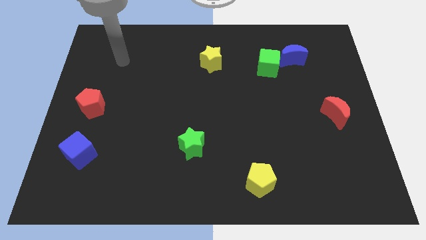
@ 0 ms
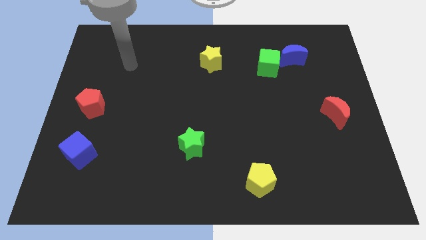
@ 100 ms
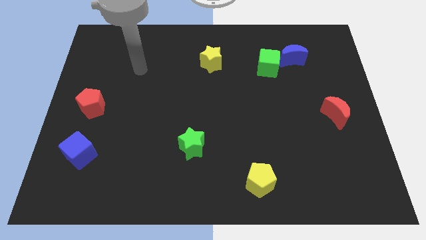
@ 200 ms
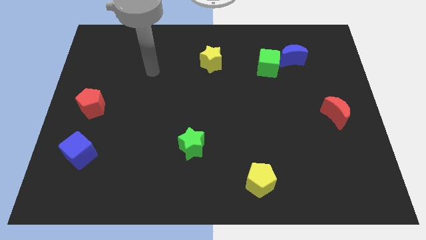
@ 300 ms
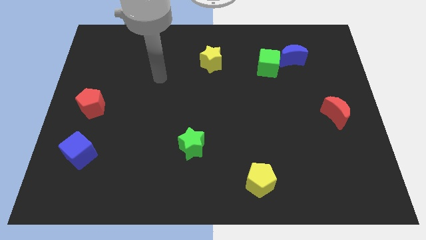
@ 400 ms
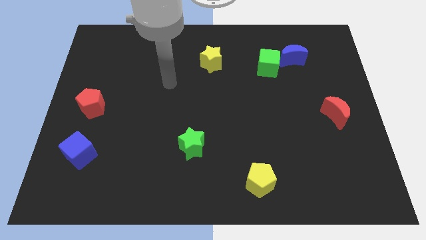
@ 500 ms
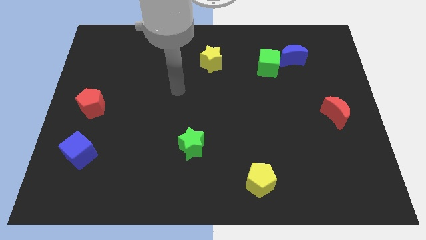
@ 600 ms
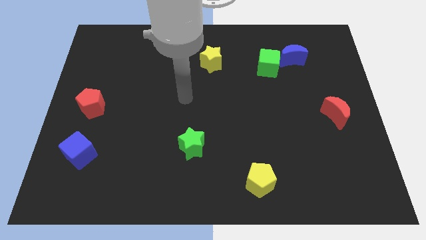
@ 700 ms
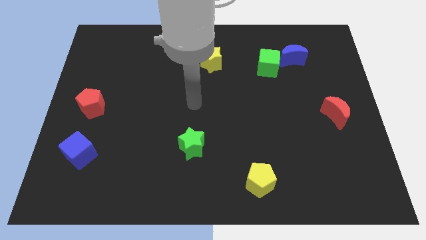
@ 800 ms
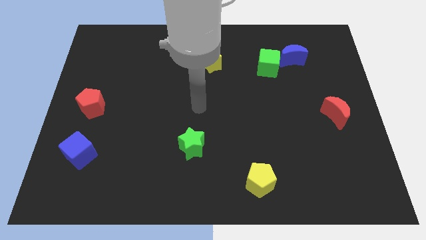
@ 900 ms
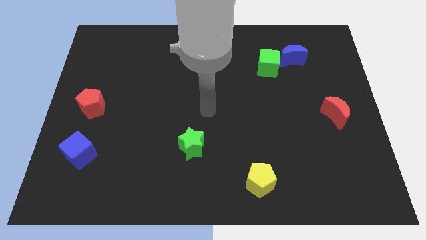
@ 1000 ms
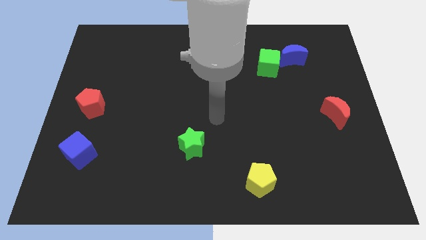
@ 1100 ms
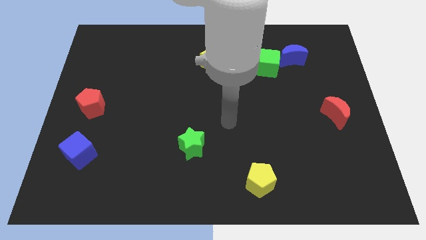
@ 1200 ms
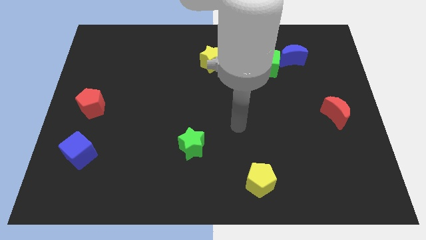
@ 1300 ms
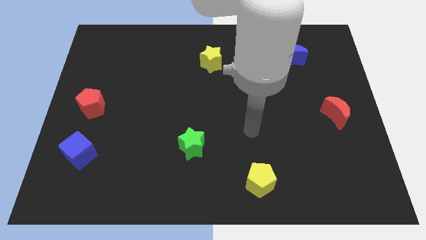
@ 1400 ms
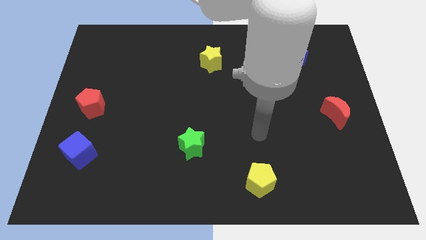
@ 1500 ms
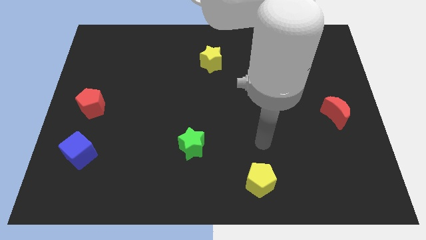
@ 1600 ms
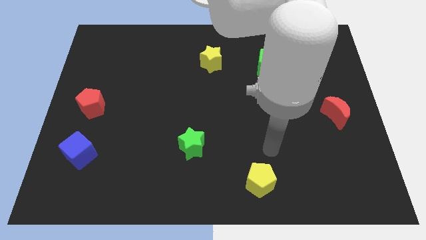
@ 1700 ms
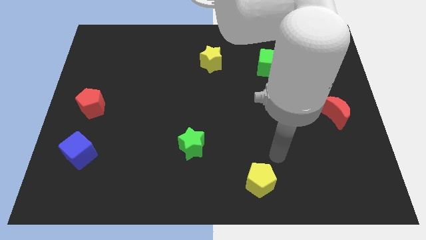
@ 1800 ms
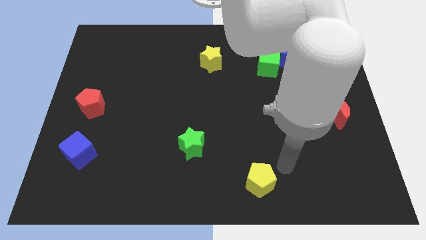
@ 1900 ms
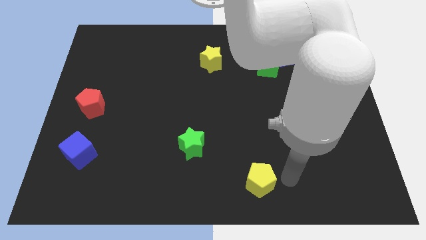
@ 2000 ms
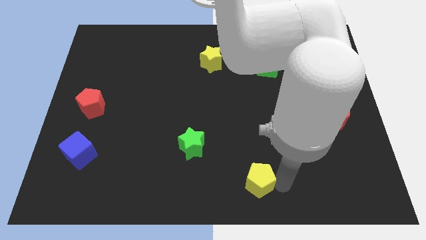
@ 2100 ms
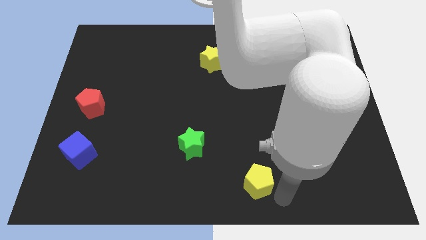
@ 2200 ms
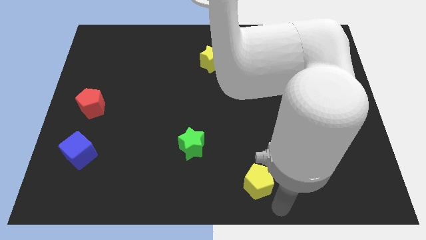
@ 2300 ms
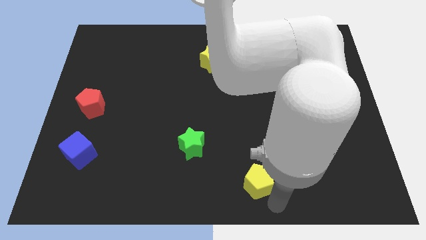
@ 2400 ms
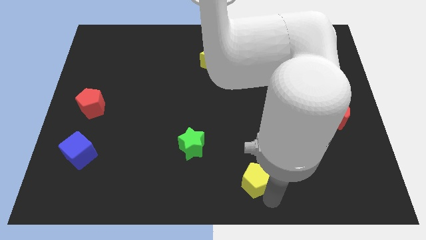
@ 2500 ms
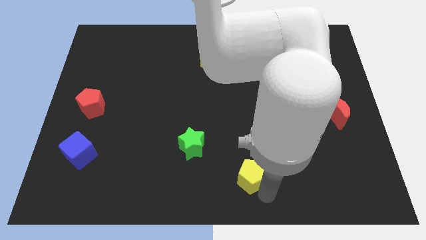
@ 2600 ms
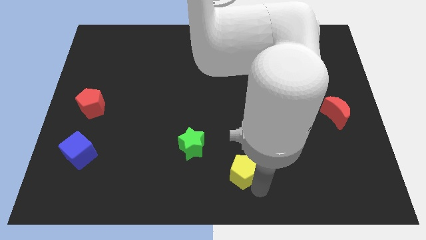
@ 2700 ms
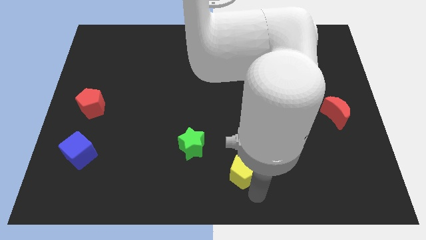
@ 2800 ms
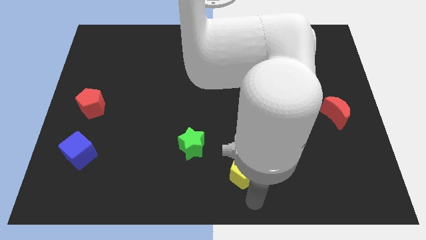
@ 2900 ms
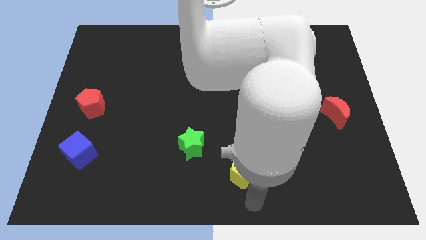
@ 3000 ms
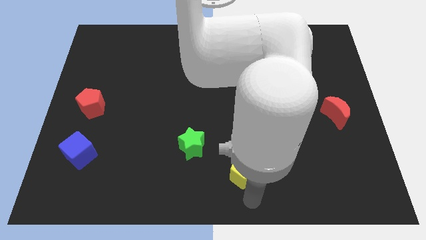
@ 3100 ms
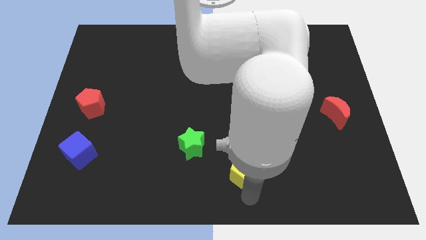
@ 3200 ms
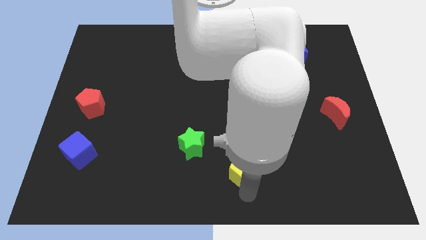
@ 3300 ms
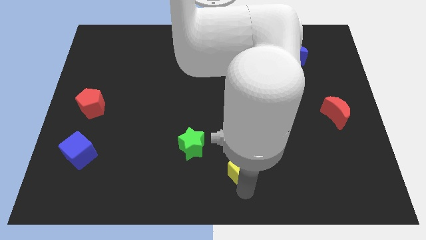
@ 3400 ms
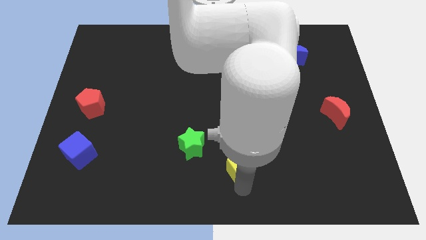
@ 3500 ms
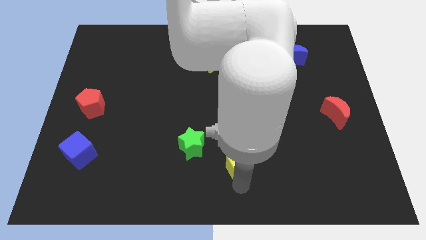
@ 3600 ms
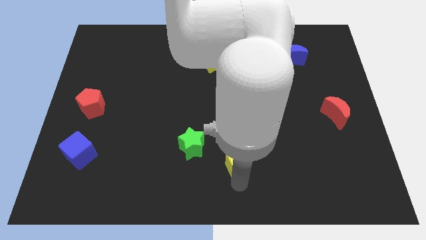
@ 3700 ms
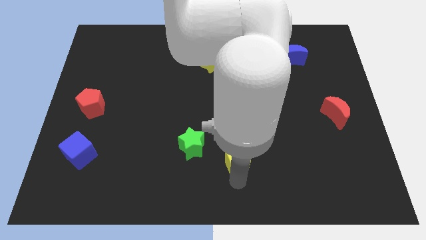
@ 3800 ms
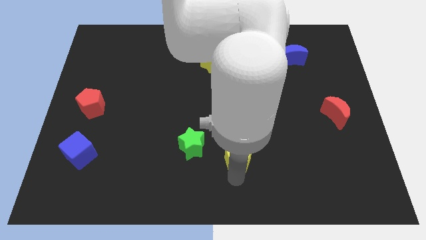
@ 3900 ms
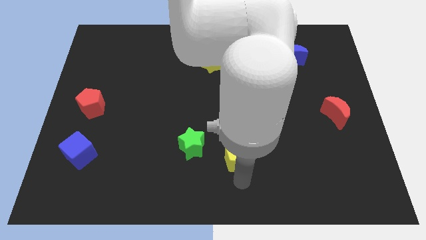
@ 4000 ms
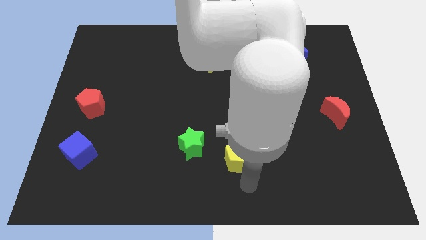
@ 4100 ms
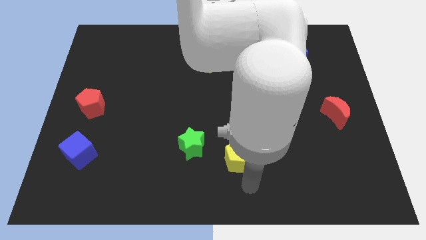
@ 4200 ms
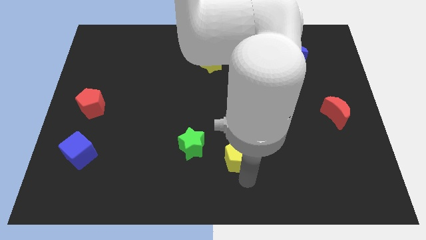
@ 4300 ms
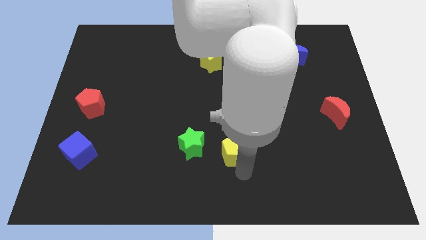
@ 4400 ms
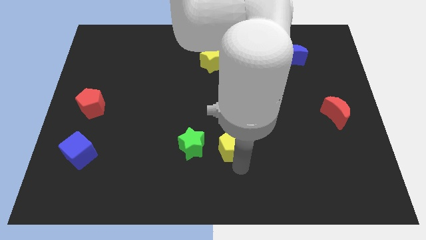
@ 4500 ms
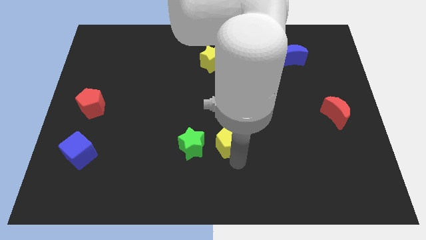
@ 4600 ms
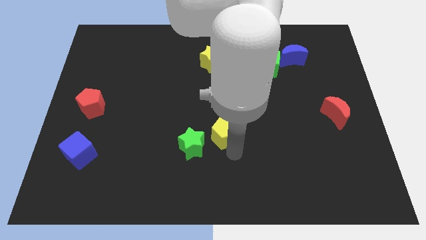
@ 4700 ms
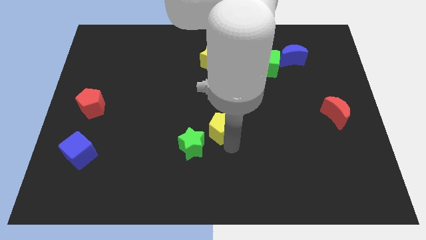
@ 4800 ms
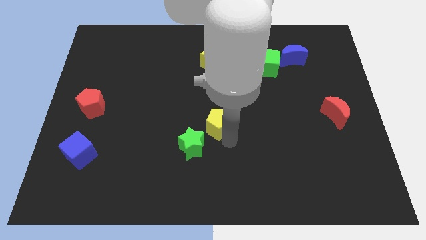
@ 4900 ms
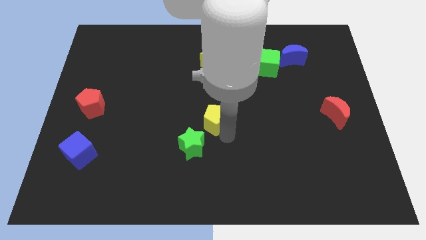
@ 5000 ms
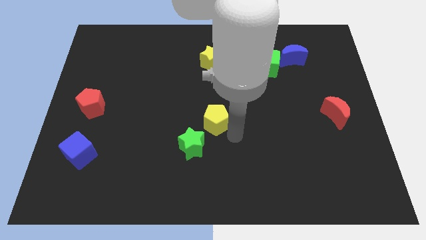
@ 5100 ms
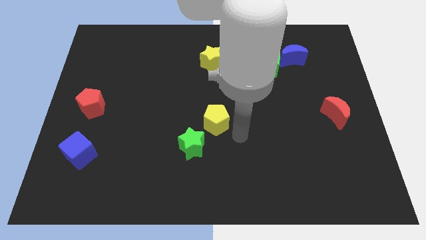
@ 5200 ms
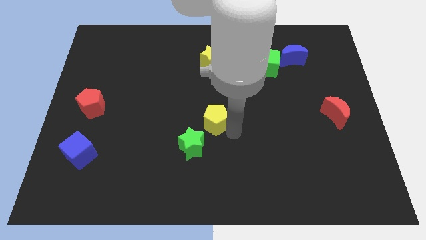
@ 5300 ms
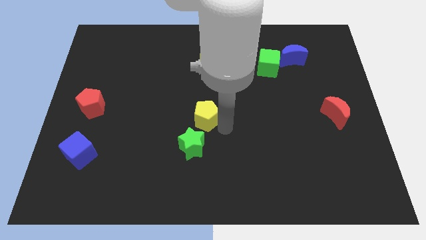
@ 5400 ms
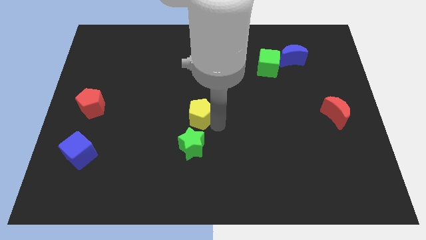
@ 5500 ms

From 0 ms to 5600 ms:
move the yellow pentagon upwards and to the left diagonally

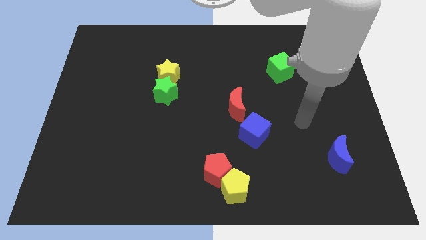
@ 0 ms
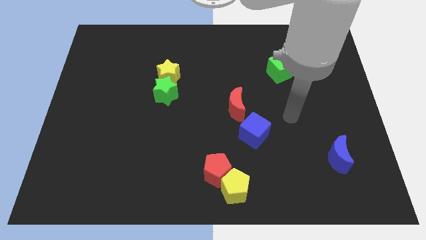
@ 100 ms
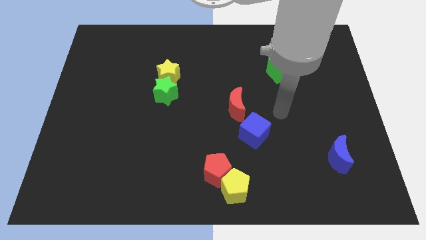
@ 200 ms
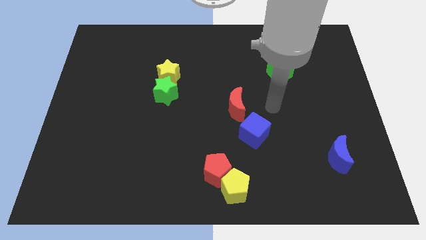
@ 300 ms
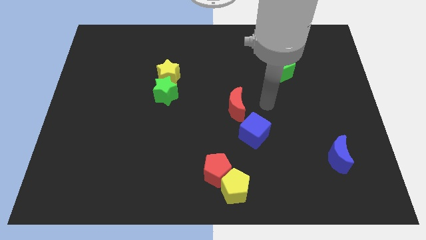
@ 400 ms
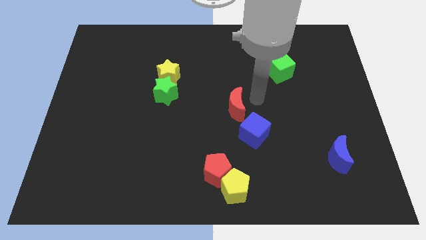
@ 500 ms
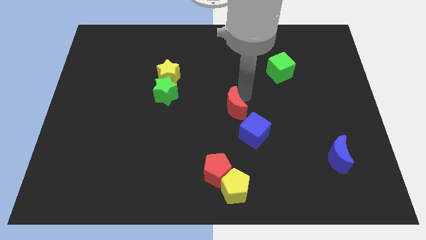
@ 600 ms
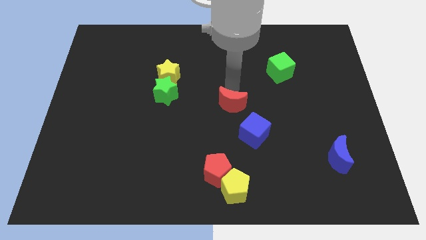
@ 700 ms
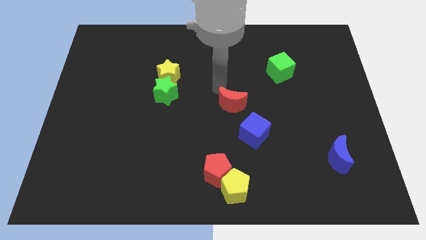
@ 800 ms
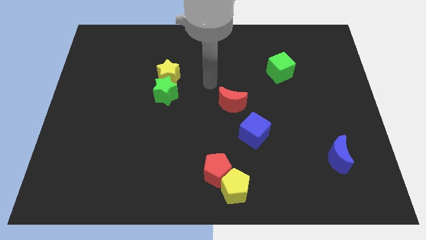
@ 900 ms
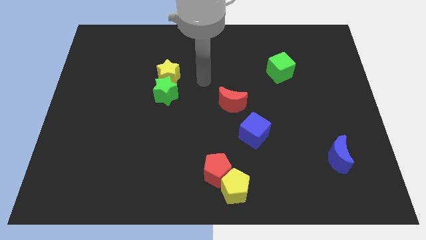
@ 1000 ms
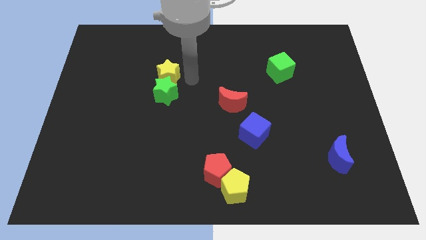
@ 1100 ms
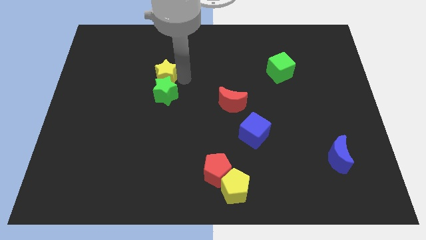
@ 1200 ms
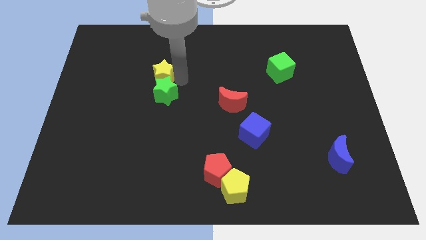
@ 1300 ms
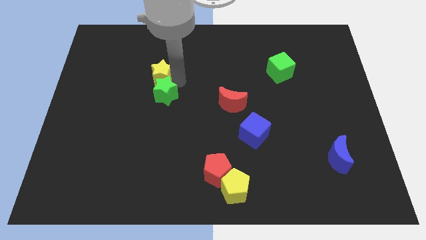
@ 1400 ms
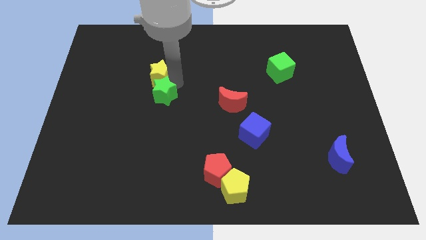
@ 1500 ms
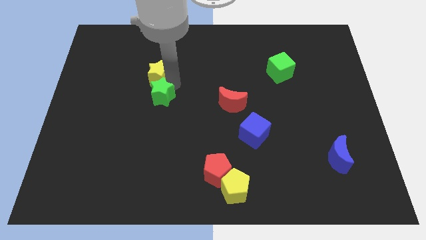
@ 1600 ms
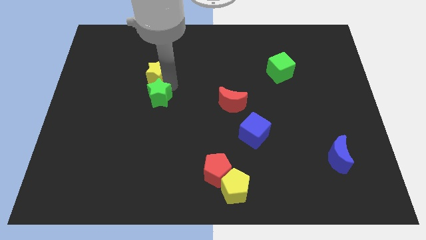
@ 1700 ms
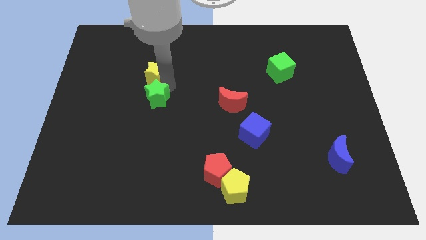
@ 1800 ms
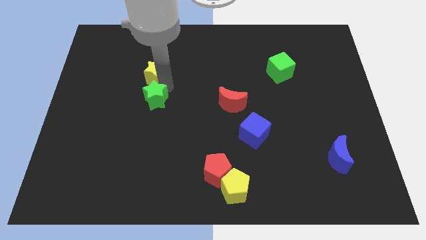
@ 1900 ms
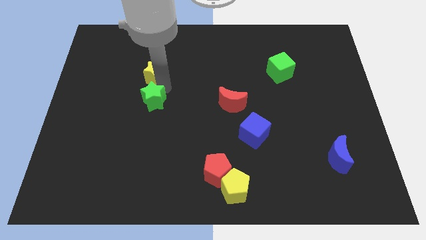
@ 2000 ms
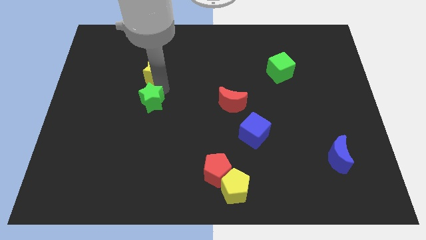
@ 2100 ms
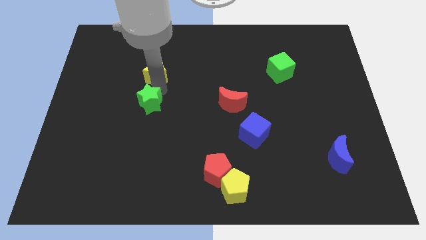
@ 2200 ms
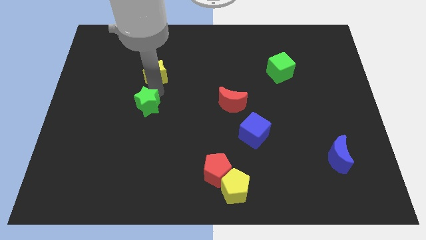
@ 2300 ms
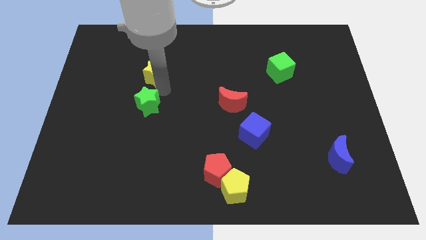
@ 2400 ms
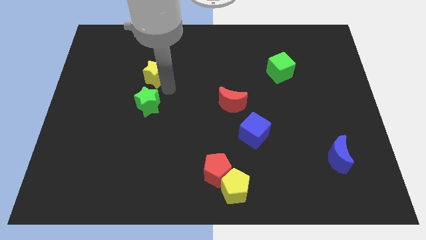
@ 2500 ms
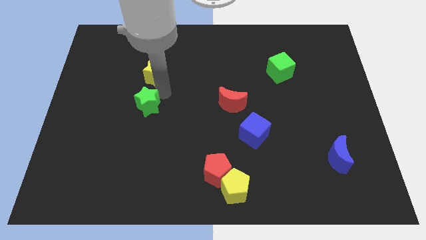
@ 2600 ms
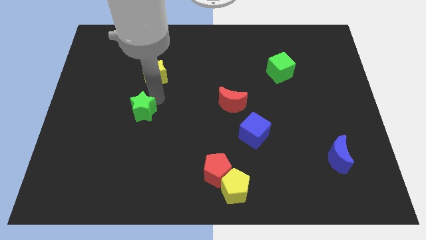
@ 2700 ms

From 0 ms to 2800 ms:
slightly push the green star downwards and left diagonally

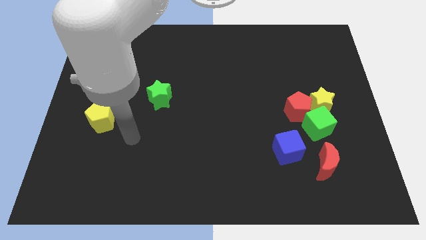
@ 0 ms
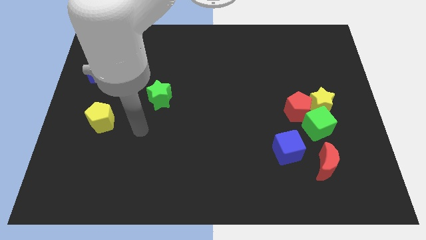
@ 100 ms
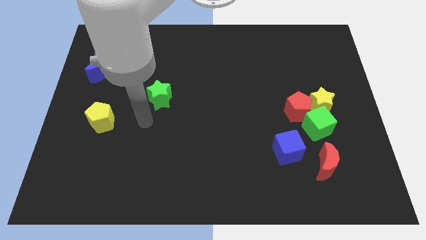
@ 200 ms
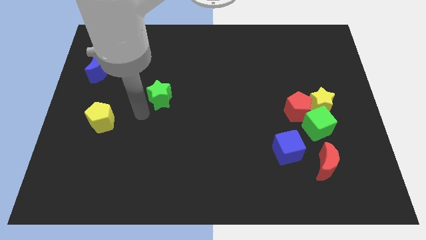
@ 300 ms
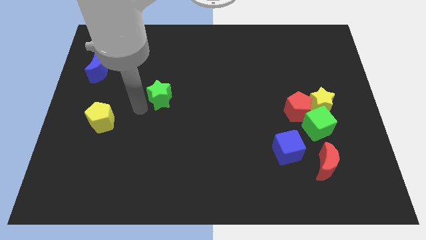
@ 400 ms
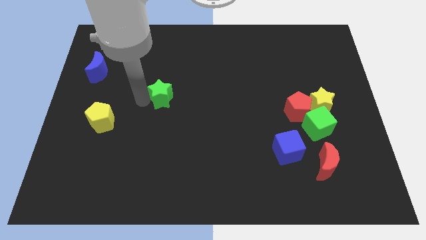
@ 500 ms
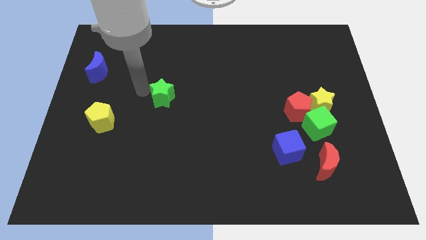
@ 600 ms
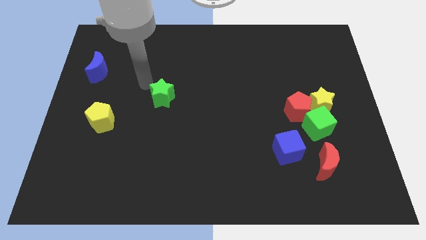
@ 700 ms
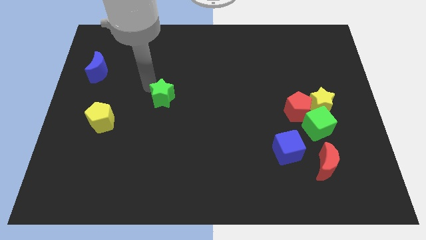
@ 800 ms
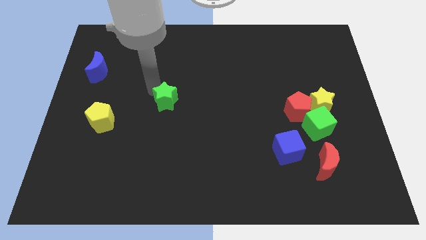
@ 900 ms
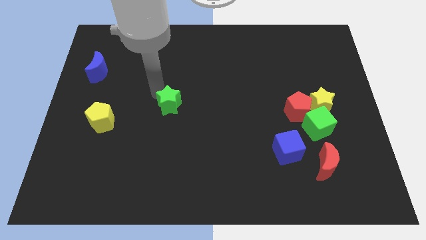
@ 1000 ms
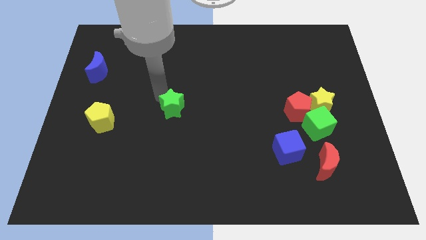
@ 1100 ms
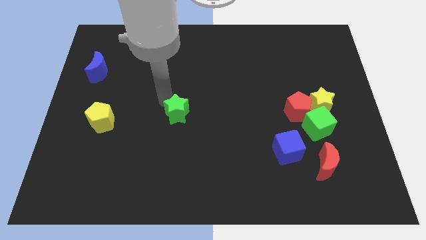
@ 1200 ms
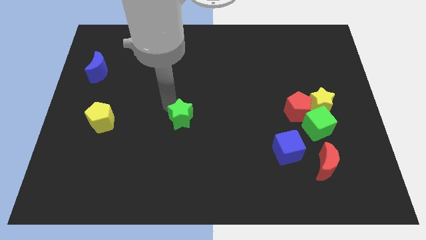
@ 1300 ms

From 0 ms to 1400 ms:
move the green star a bit diagonally downwards and right
